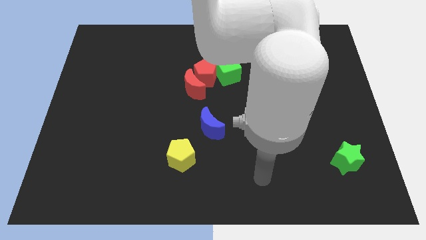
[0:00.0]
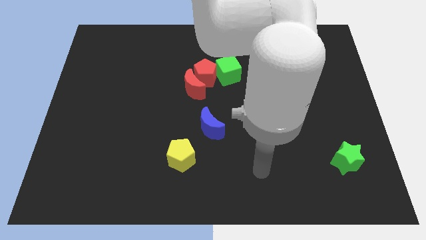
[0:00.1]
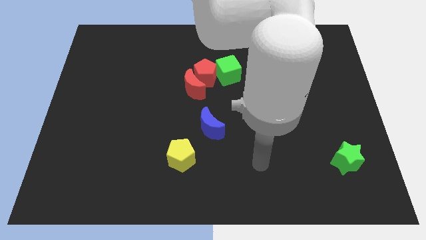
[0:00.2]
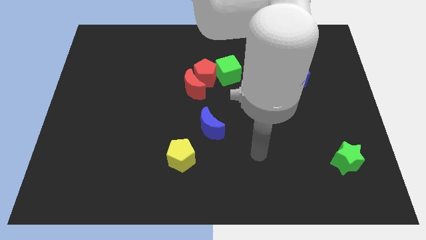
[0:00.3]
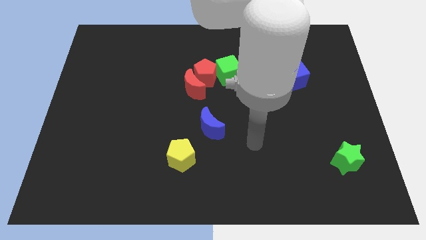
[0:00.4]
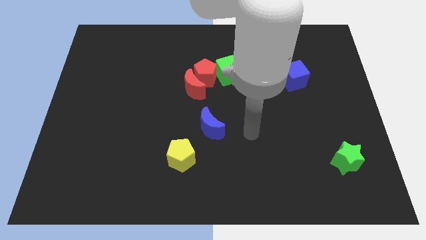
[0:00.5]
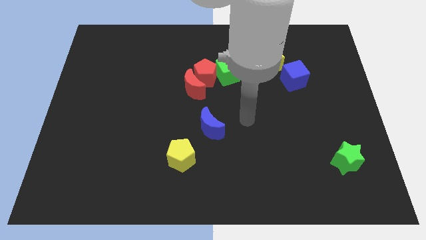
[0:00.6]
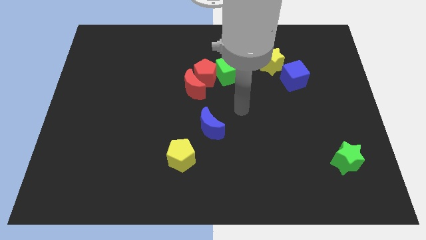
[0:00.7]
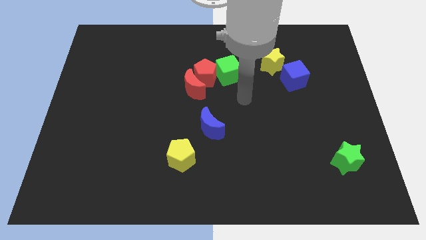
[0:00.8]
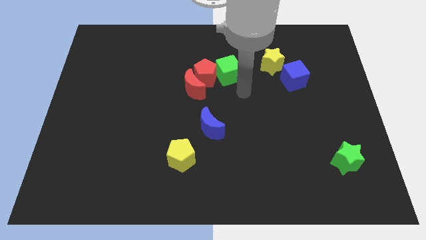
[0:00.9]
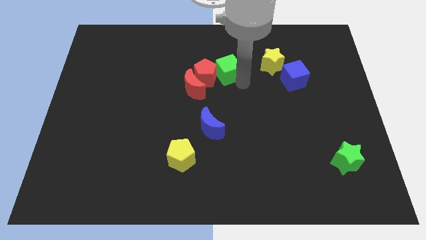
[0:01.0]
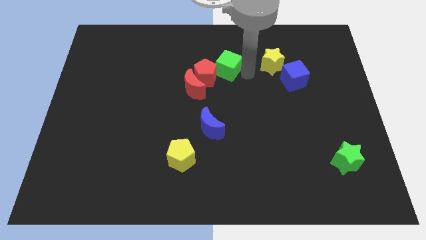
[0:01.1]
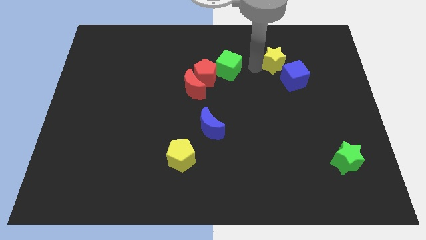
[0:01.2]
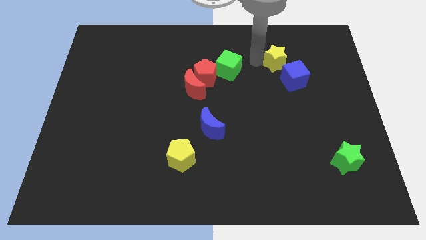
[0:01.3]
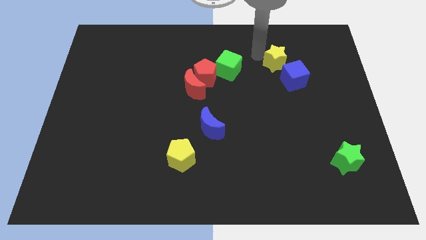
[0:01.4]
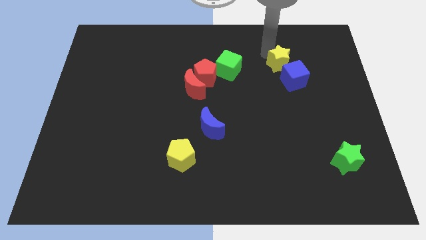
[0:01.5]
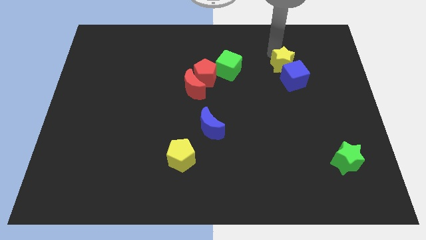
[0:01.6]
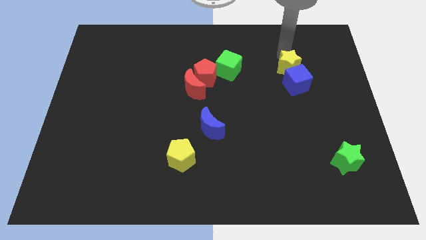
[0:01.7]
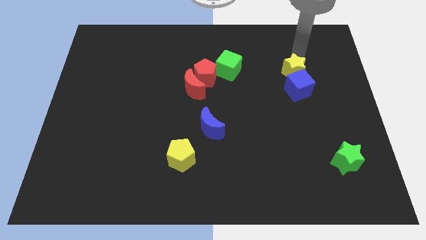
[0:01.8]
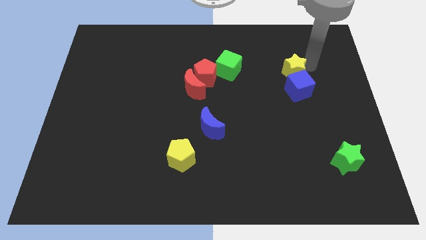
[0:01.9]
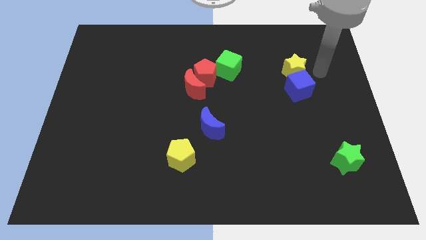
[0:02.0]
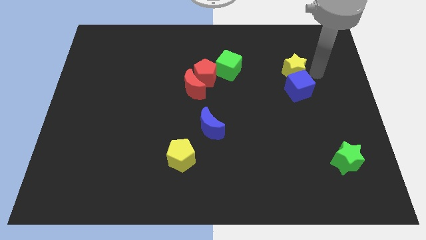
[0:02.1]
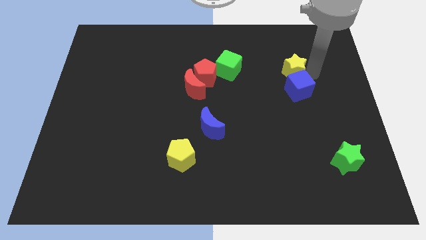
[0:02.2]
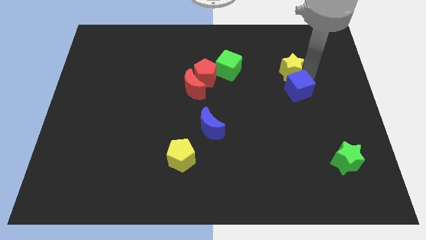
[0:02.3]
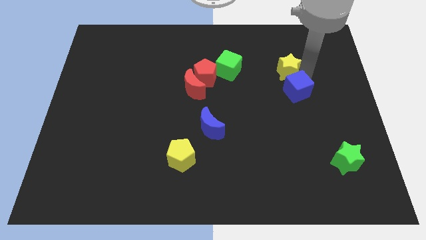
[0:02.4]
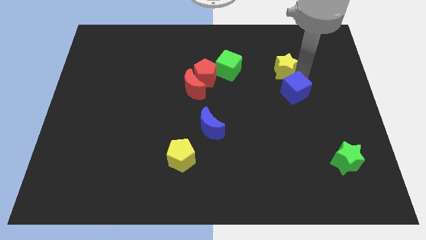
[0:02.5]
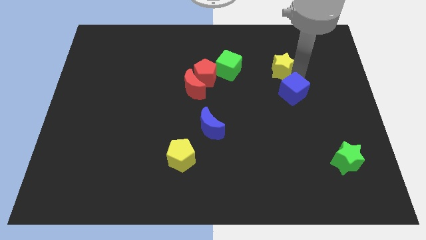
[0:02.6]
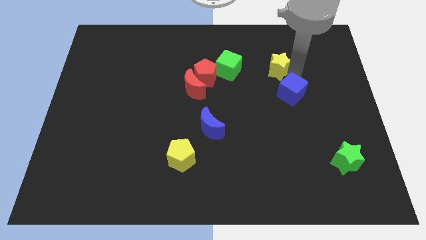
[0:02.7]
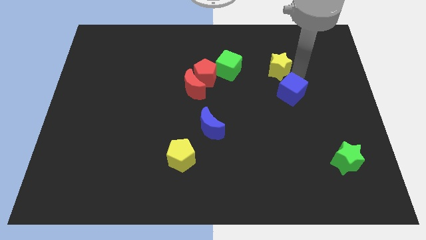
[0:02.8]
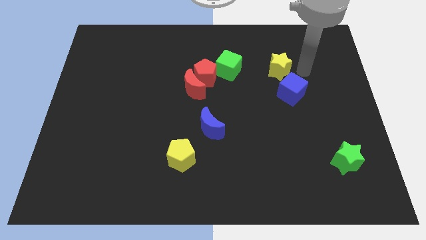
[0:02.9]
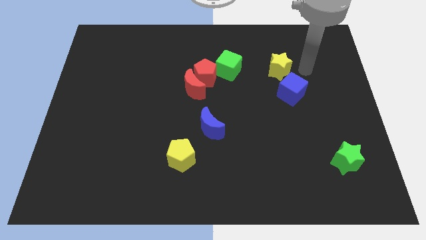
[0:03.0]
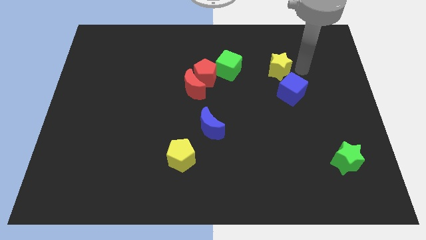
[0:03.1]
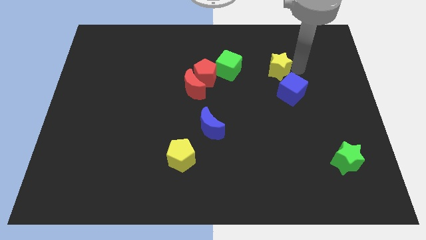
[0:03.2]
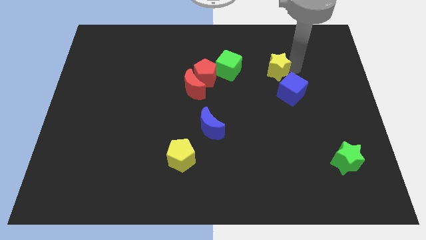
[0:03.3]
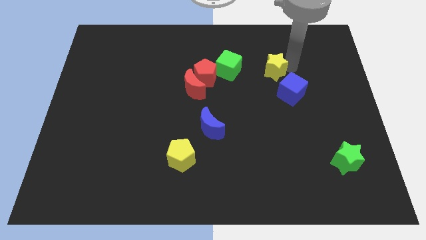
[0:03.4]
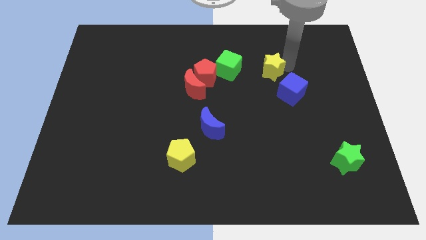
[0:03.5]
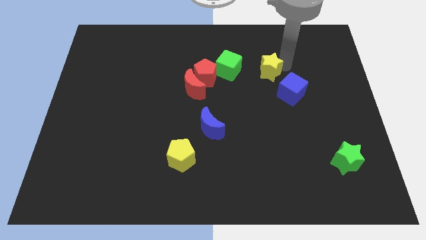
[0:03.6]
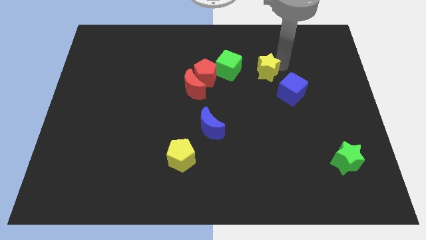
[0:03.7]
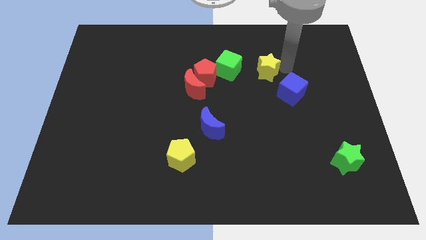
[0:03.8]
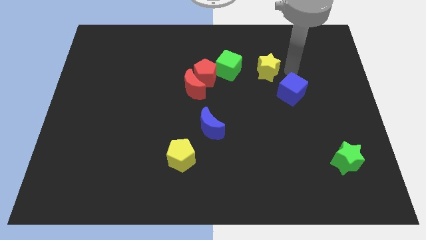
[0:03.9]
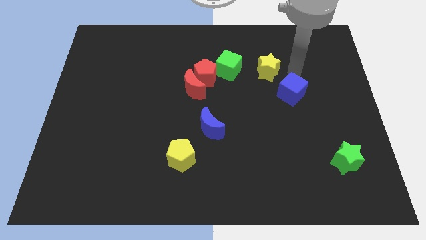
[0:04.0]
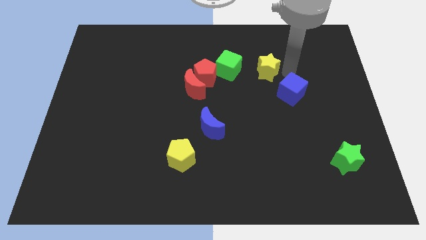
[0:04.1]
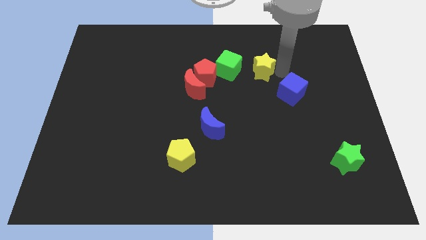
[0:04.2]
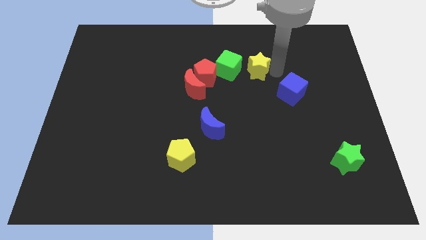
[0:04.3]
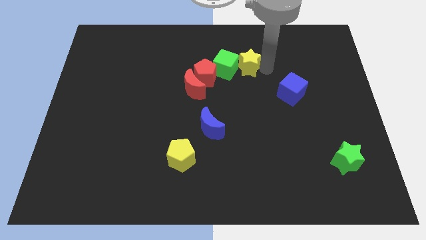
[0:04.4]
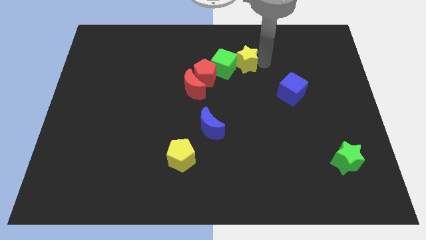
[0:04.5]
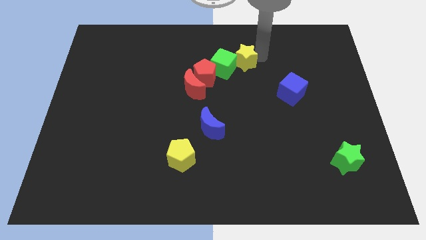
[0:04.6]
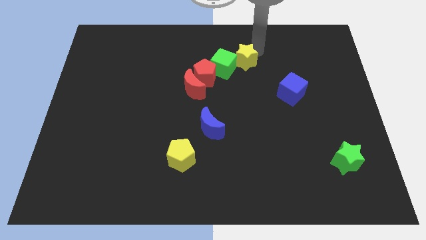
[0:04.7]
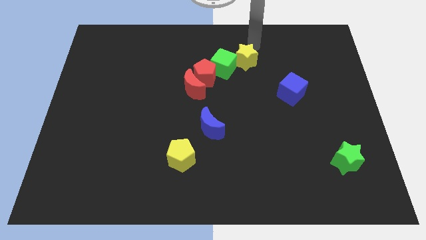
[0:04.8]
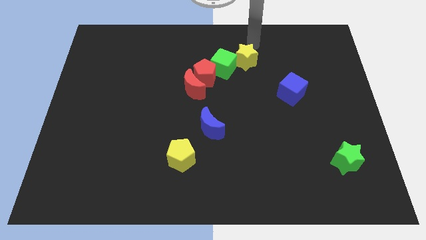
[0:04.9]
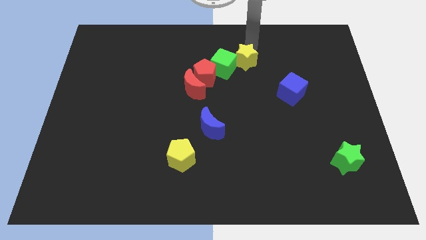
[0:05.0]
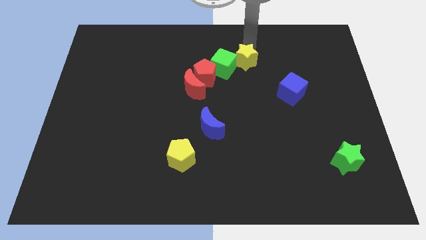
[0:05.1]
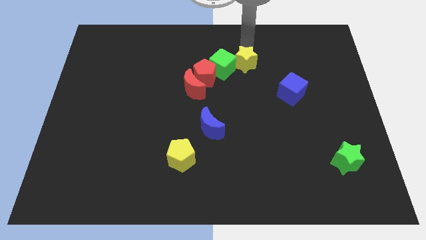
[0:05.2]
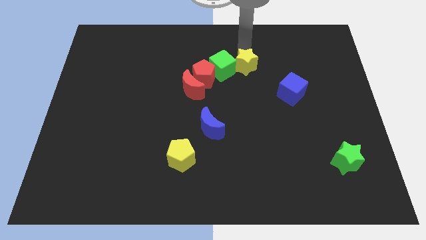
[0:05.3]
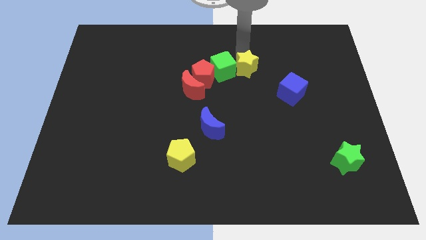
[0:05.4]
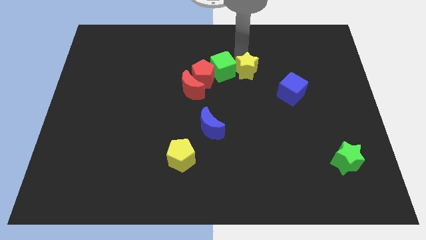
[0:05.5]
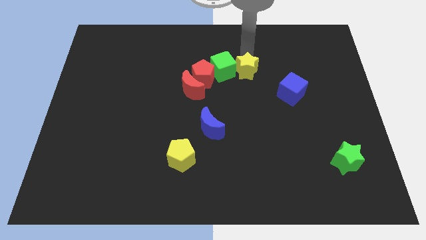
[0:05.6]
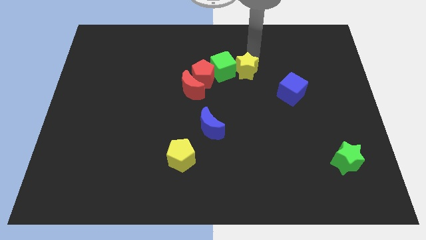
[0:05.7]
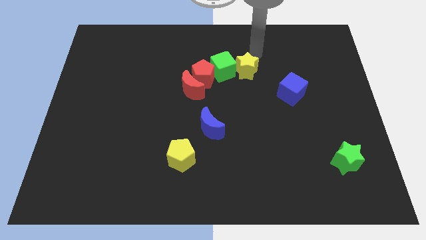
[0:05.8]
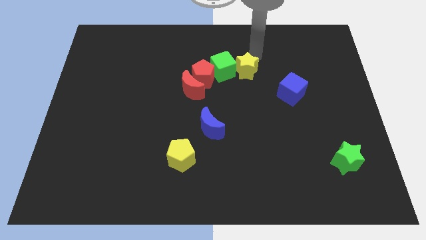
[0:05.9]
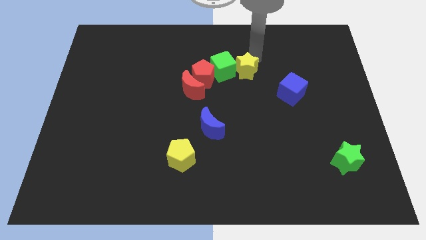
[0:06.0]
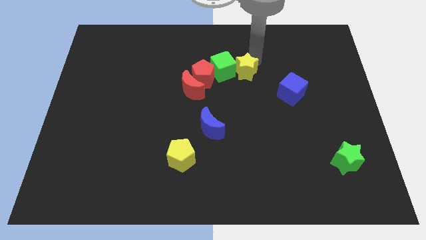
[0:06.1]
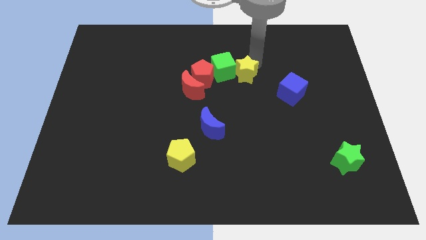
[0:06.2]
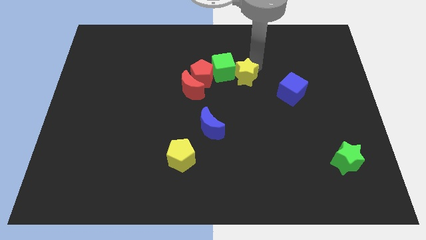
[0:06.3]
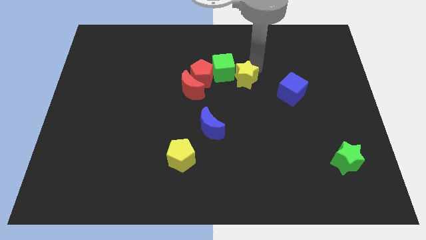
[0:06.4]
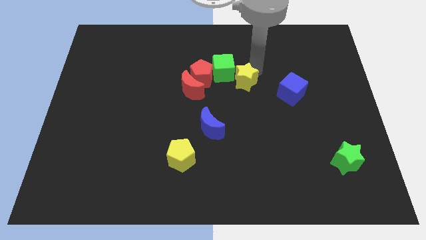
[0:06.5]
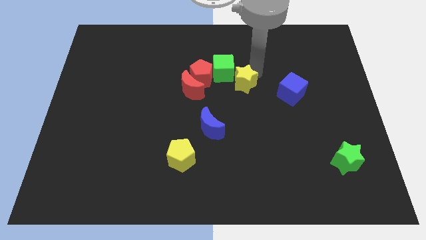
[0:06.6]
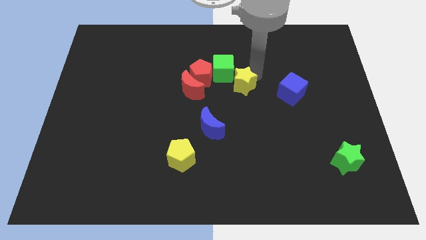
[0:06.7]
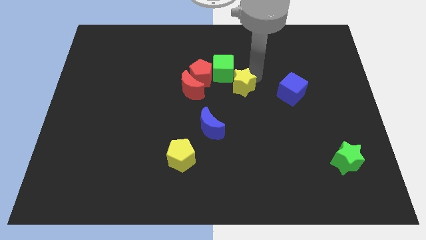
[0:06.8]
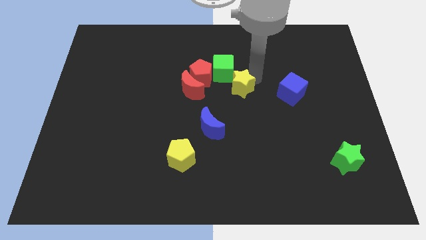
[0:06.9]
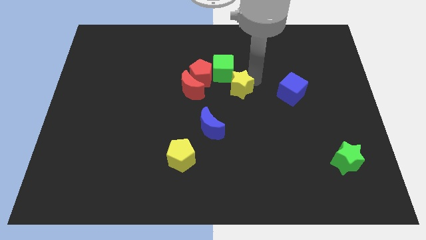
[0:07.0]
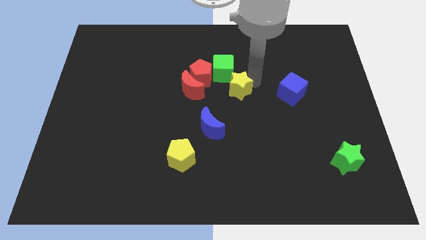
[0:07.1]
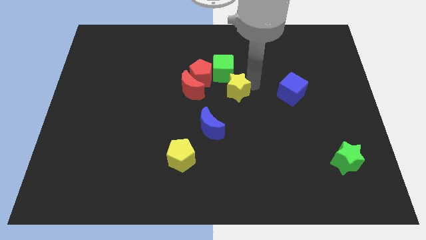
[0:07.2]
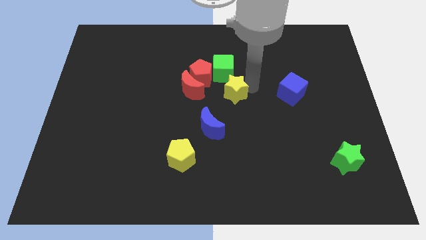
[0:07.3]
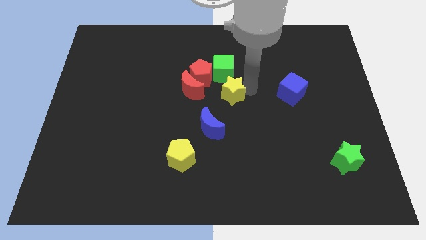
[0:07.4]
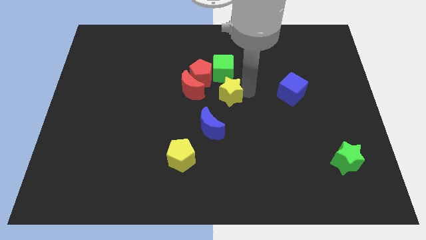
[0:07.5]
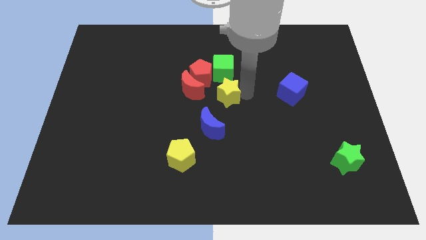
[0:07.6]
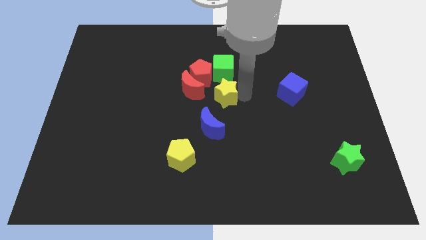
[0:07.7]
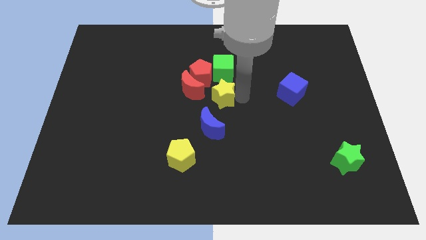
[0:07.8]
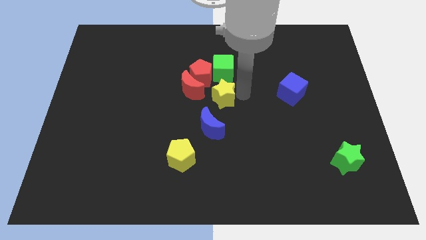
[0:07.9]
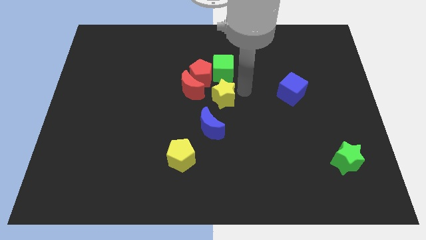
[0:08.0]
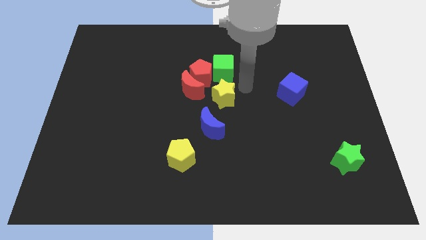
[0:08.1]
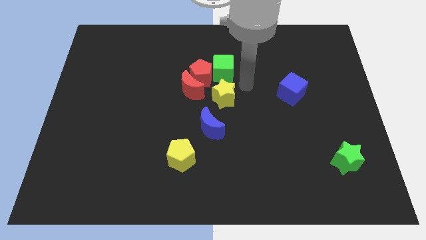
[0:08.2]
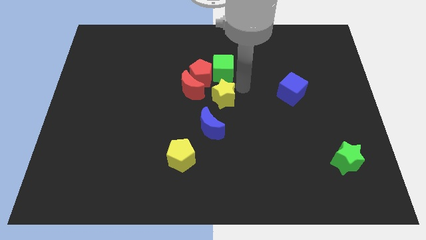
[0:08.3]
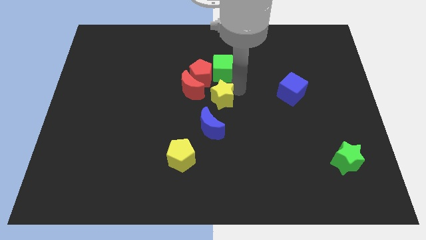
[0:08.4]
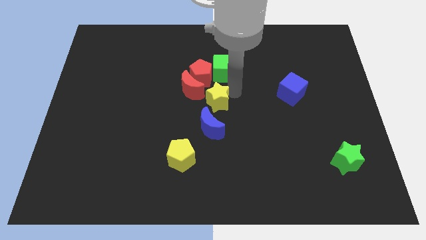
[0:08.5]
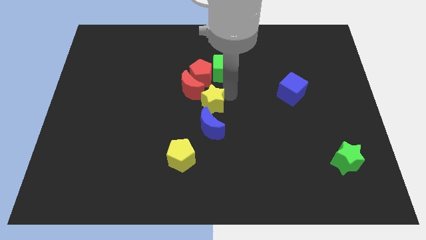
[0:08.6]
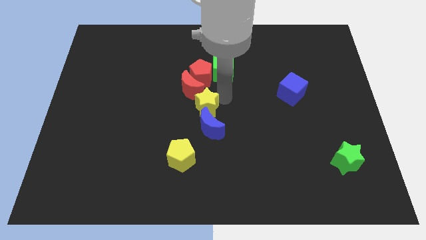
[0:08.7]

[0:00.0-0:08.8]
slide the yellow star diagonally up and to the left of the blue moon
